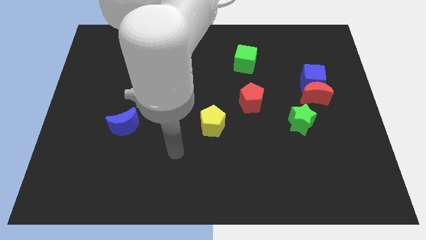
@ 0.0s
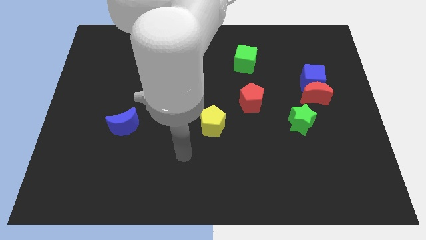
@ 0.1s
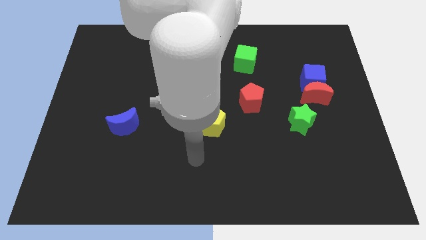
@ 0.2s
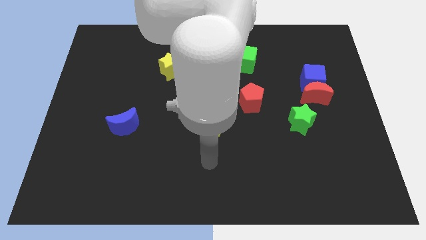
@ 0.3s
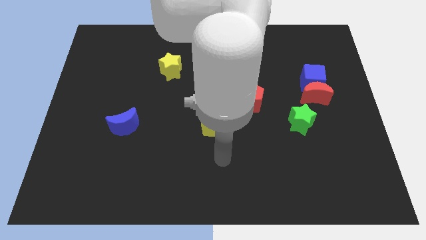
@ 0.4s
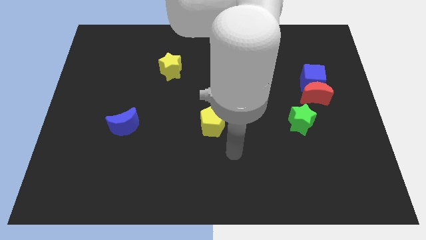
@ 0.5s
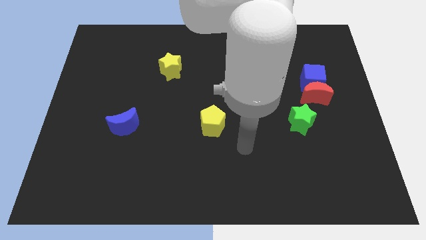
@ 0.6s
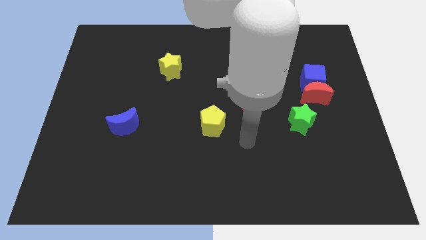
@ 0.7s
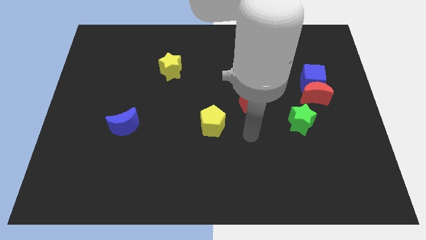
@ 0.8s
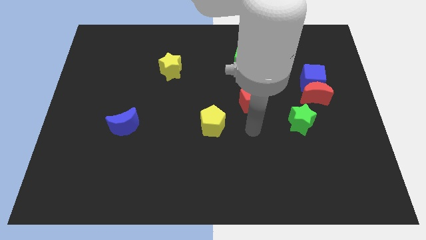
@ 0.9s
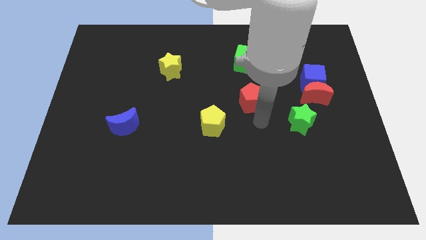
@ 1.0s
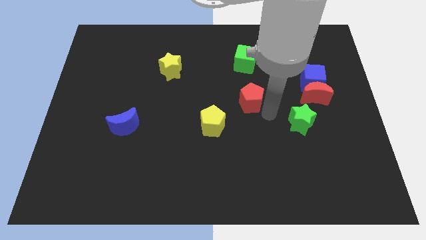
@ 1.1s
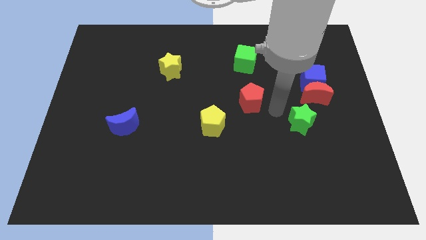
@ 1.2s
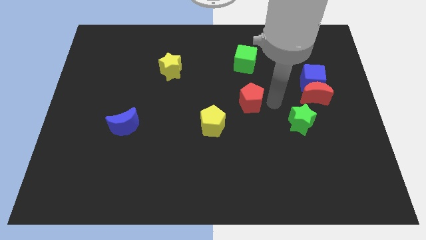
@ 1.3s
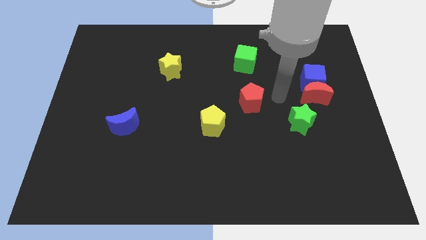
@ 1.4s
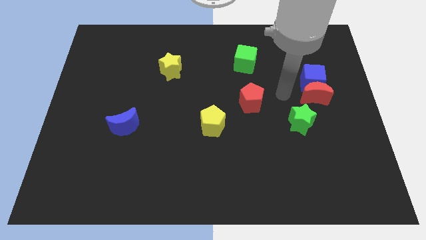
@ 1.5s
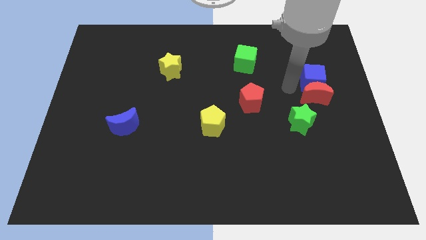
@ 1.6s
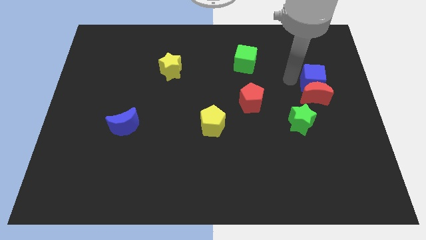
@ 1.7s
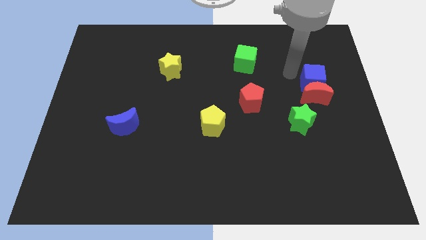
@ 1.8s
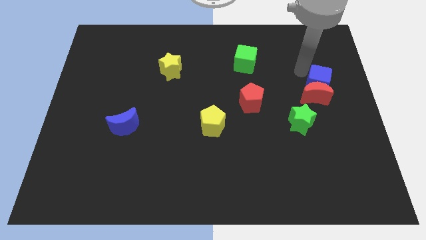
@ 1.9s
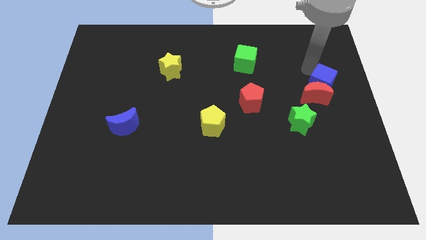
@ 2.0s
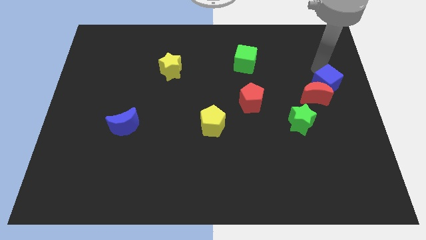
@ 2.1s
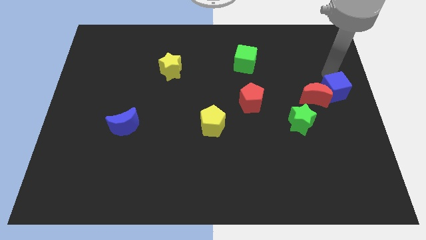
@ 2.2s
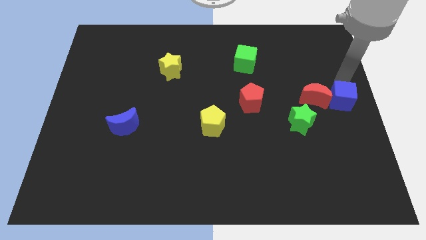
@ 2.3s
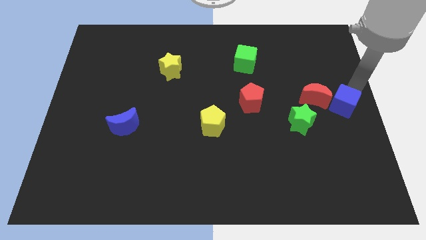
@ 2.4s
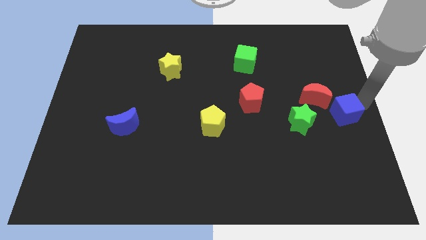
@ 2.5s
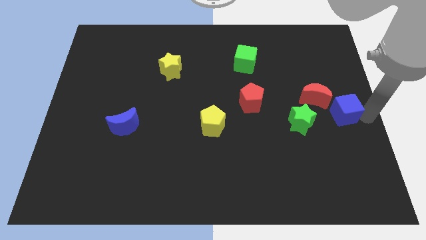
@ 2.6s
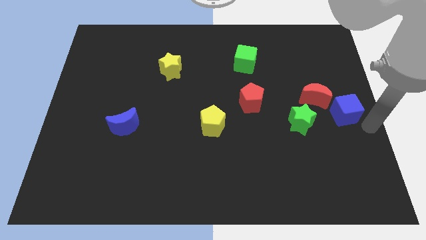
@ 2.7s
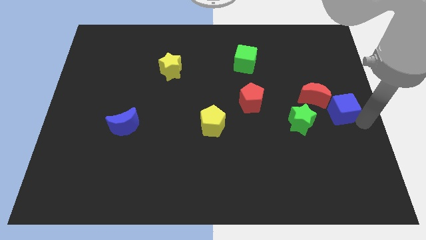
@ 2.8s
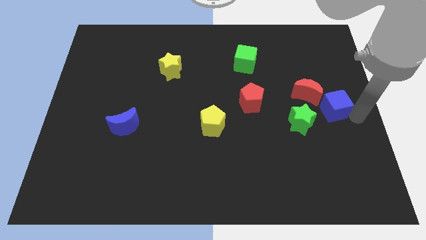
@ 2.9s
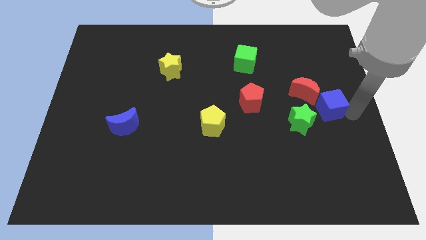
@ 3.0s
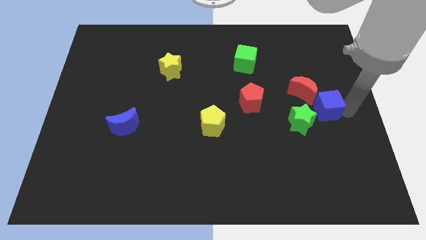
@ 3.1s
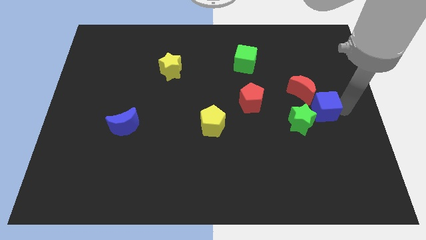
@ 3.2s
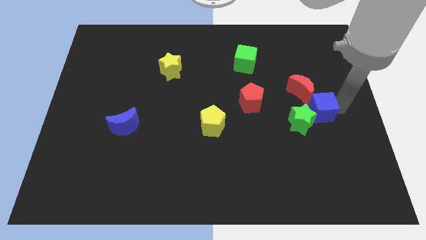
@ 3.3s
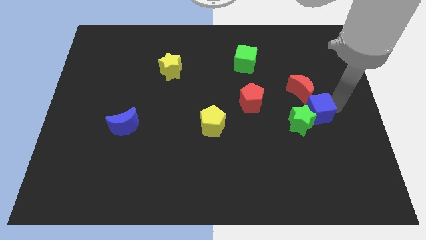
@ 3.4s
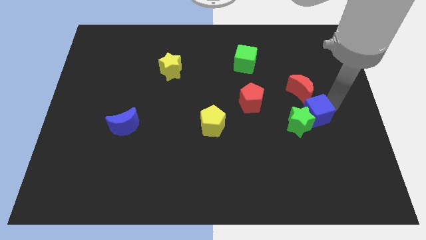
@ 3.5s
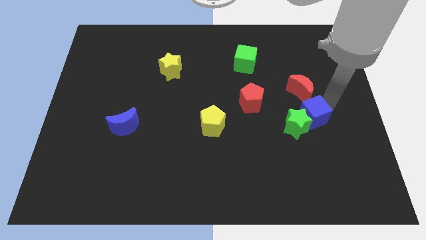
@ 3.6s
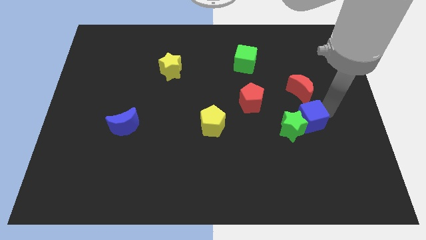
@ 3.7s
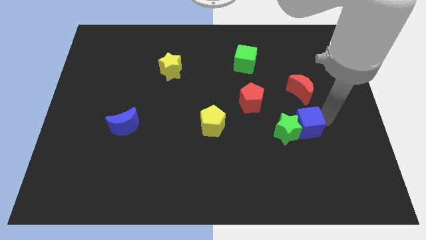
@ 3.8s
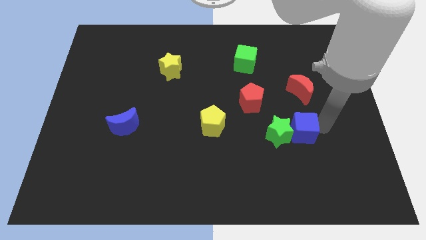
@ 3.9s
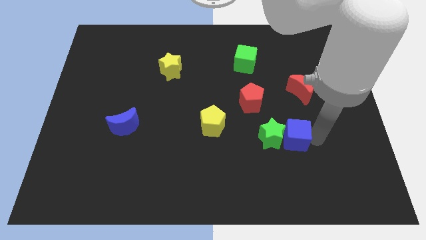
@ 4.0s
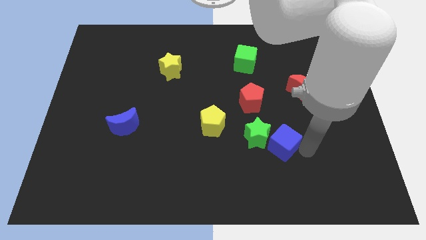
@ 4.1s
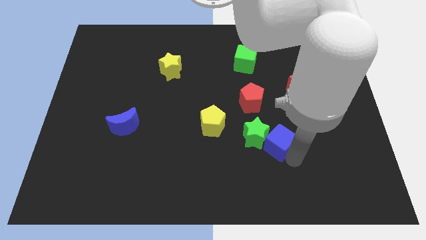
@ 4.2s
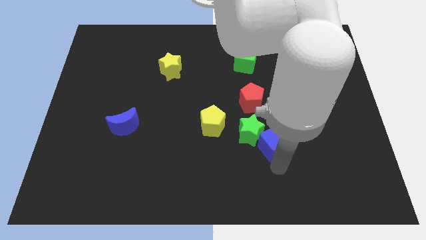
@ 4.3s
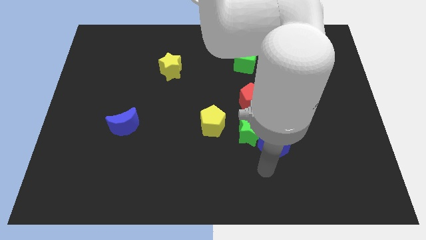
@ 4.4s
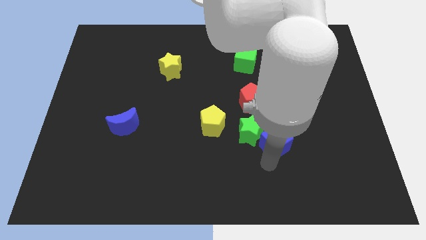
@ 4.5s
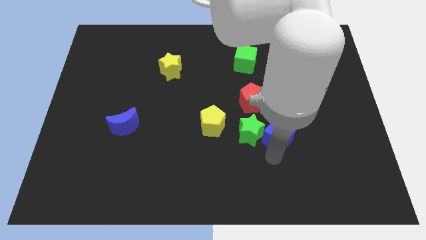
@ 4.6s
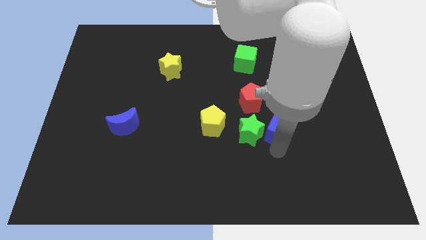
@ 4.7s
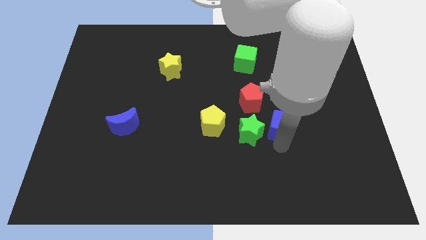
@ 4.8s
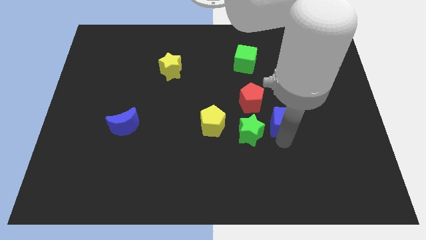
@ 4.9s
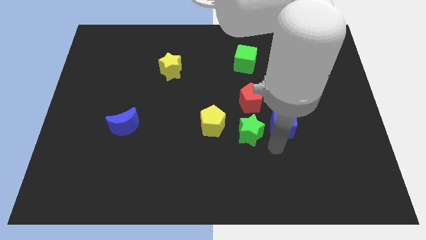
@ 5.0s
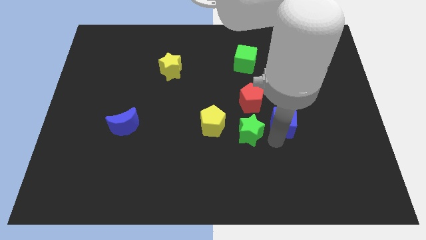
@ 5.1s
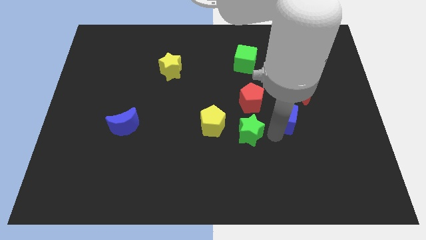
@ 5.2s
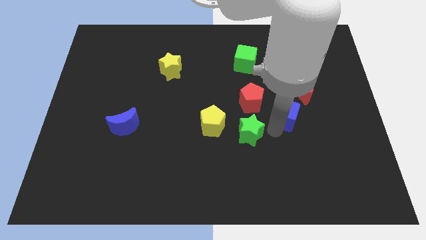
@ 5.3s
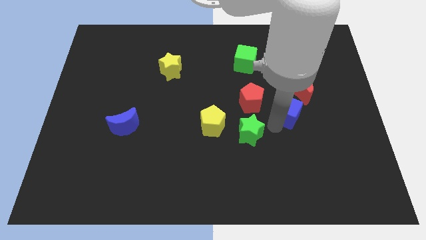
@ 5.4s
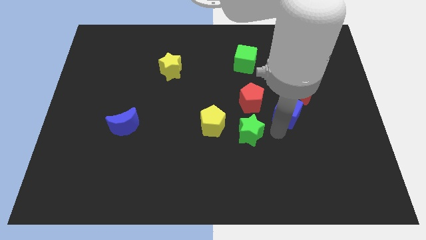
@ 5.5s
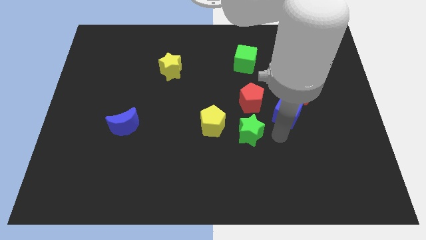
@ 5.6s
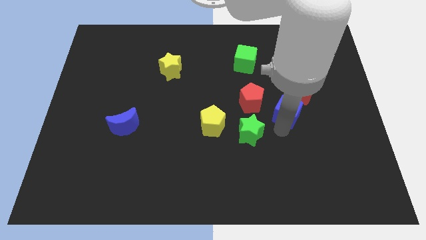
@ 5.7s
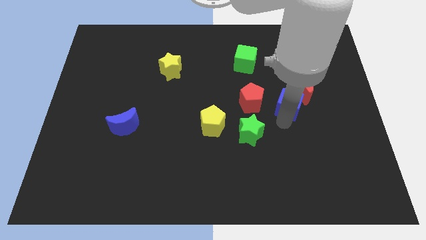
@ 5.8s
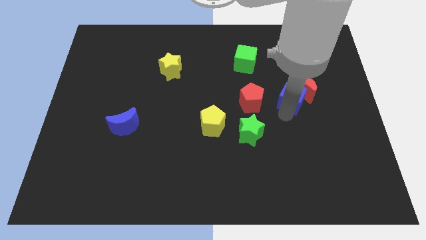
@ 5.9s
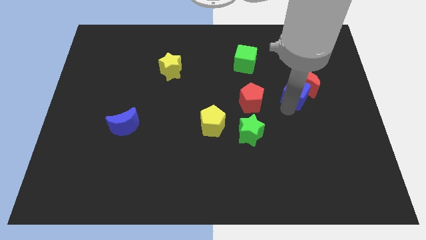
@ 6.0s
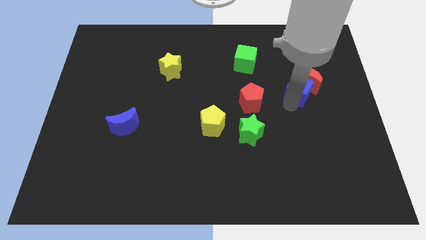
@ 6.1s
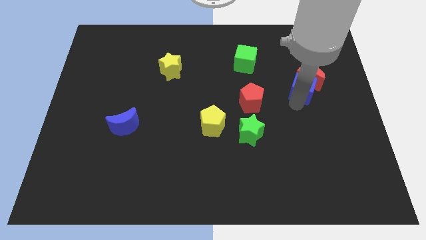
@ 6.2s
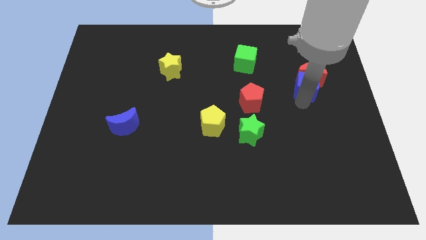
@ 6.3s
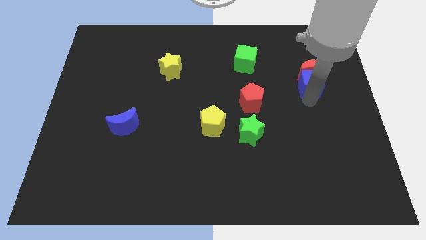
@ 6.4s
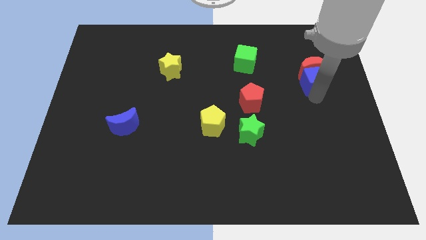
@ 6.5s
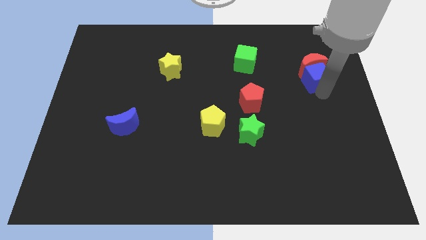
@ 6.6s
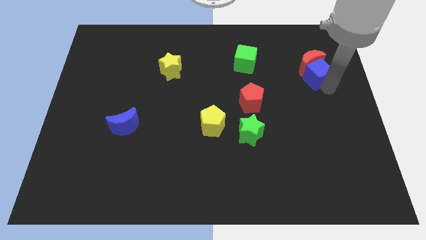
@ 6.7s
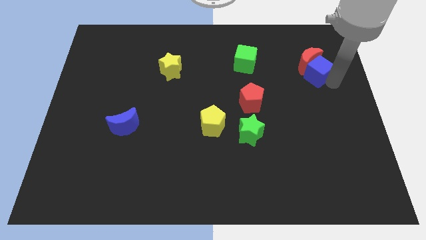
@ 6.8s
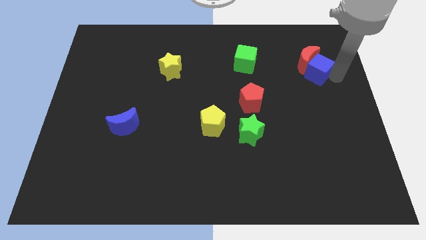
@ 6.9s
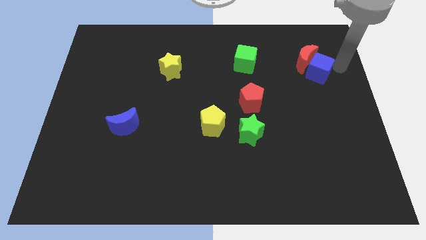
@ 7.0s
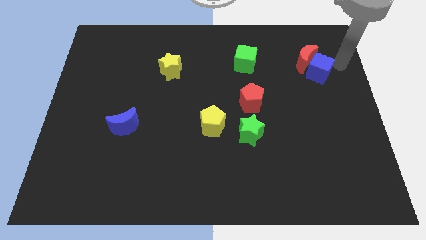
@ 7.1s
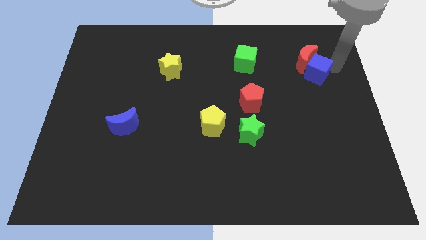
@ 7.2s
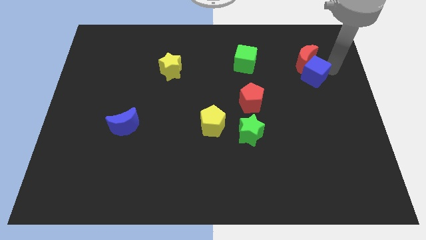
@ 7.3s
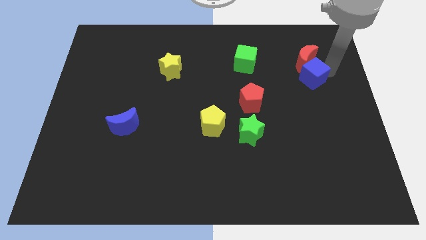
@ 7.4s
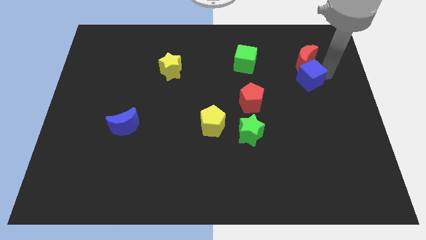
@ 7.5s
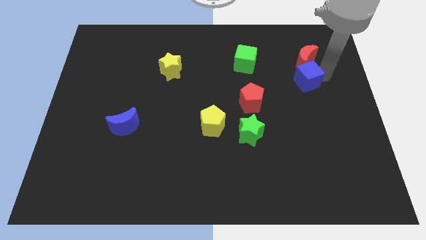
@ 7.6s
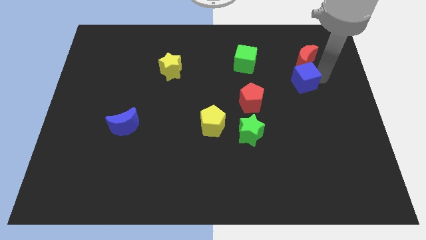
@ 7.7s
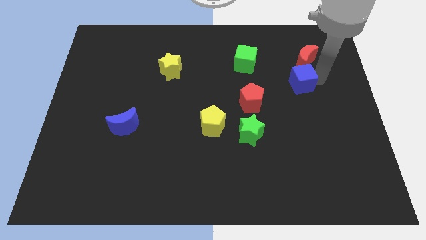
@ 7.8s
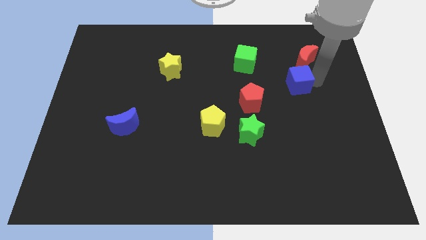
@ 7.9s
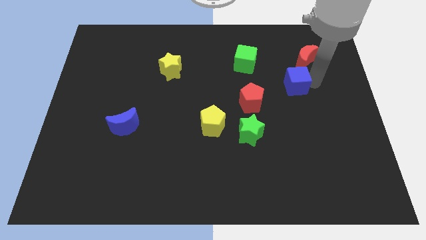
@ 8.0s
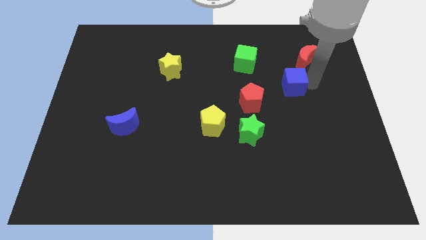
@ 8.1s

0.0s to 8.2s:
push the blue cube diagonally up and to the right of the red pentagon
